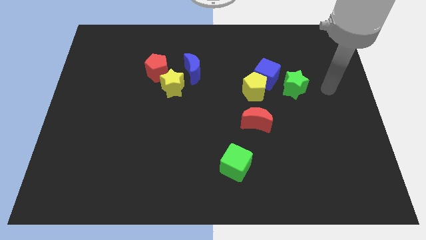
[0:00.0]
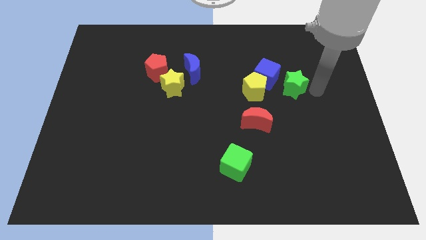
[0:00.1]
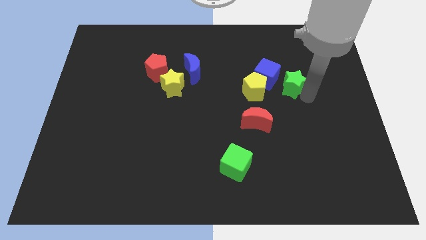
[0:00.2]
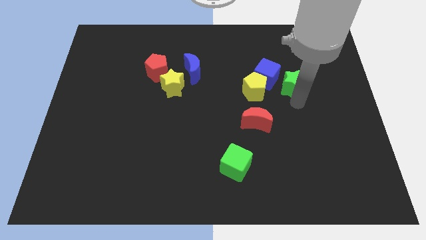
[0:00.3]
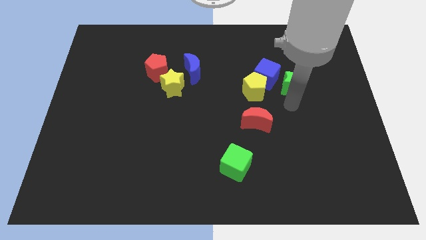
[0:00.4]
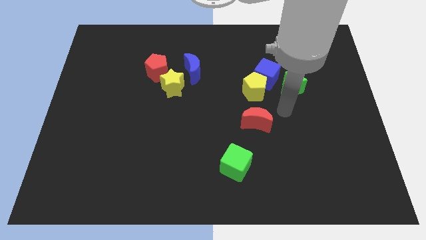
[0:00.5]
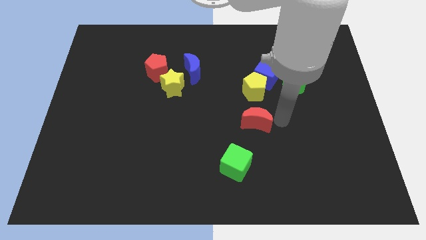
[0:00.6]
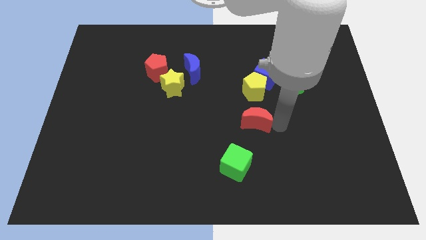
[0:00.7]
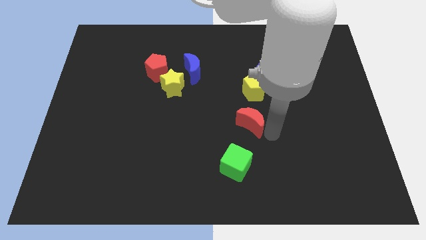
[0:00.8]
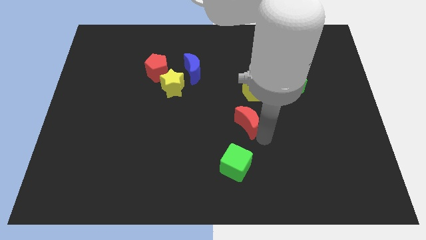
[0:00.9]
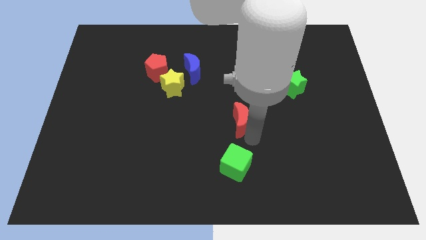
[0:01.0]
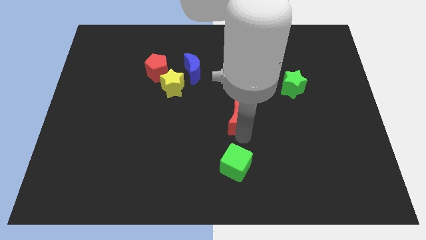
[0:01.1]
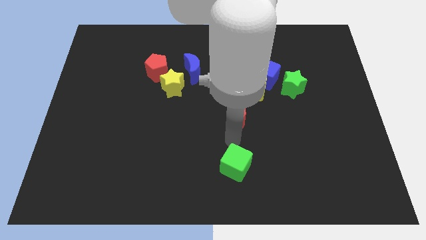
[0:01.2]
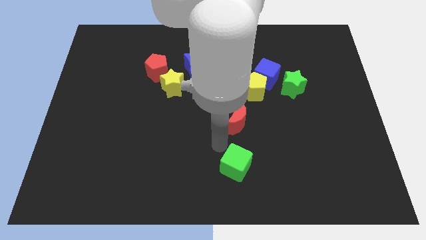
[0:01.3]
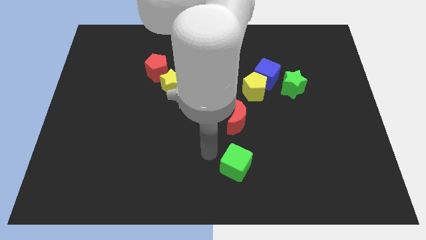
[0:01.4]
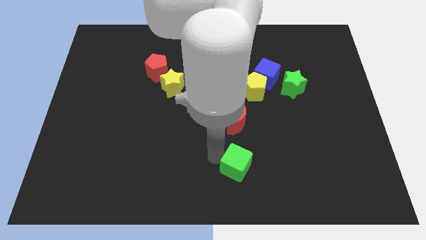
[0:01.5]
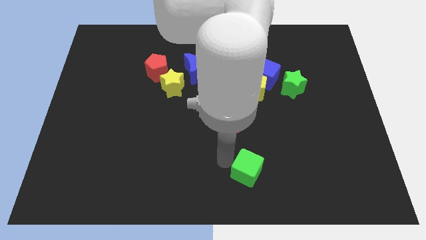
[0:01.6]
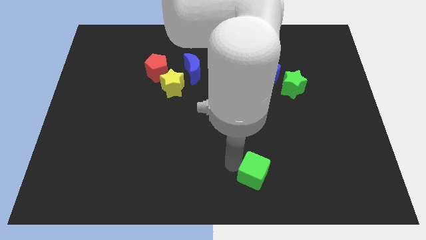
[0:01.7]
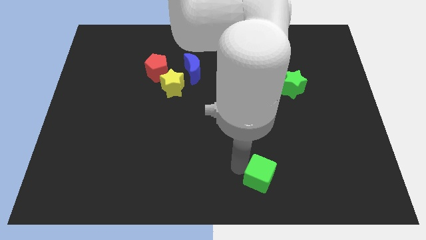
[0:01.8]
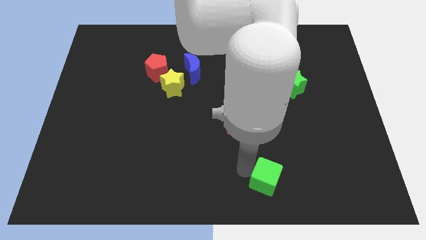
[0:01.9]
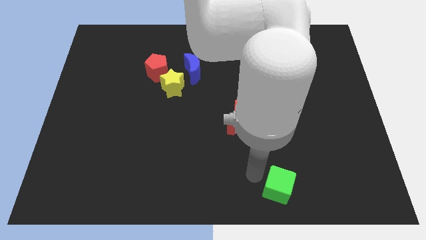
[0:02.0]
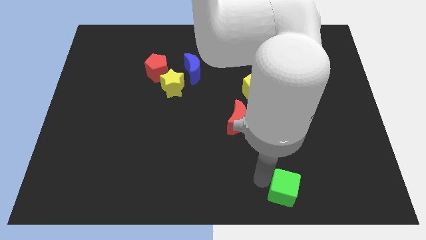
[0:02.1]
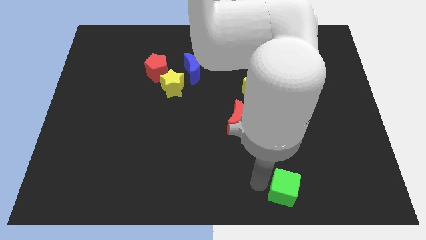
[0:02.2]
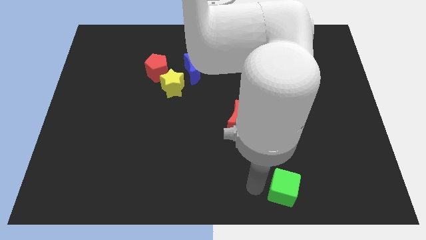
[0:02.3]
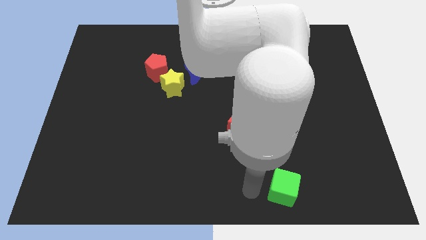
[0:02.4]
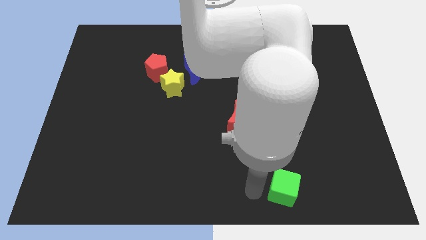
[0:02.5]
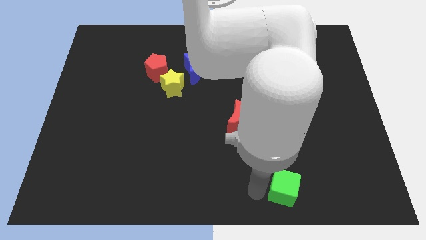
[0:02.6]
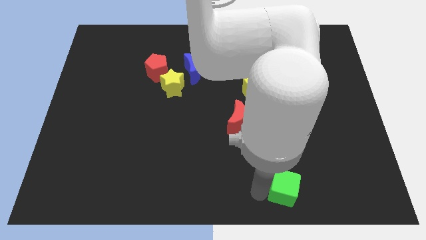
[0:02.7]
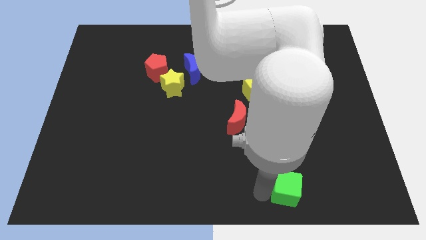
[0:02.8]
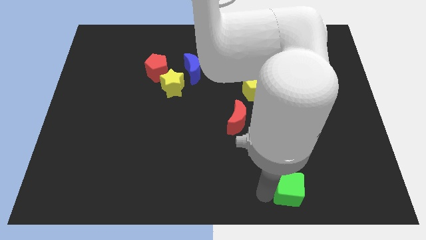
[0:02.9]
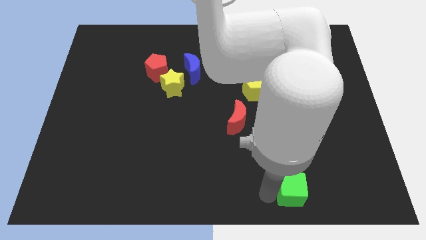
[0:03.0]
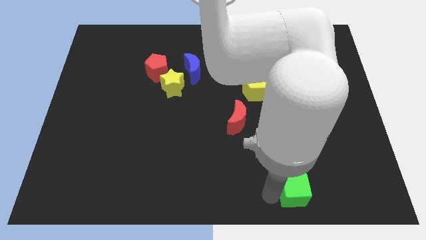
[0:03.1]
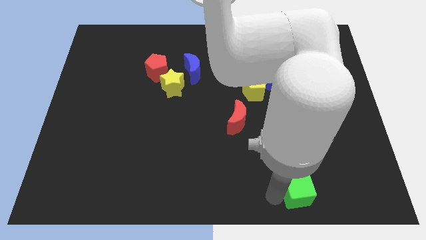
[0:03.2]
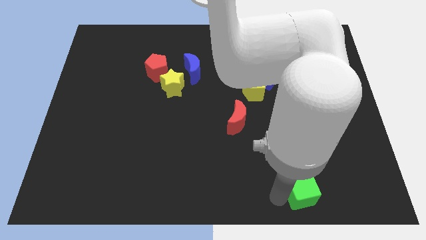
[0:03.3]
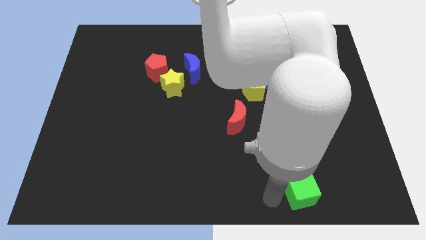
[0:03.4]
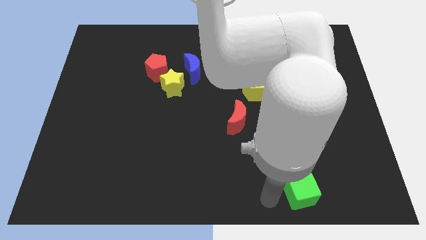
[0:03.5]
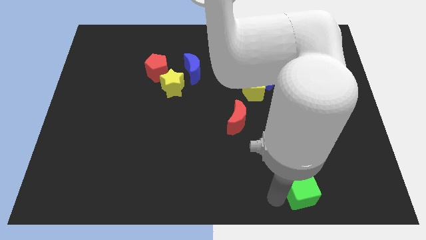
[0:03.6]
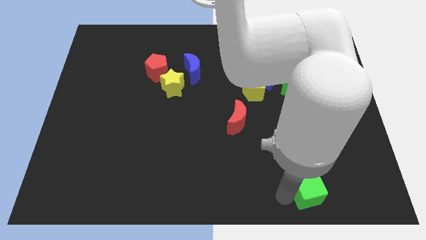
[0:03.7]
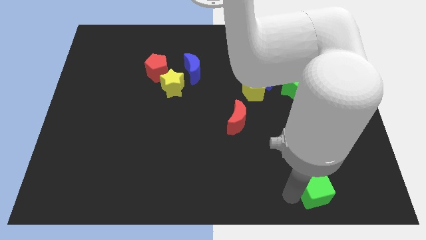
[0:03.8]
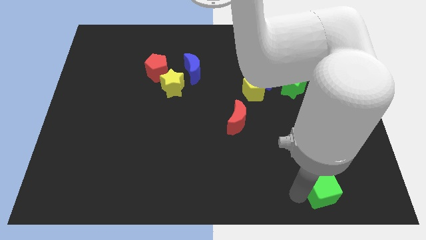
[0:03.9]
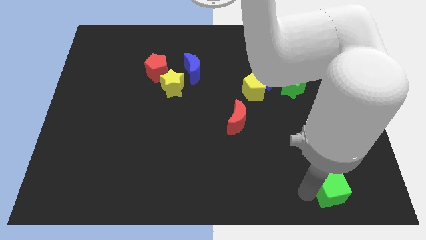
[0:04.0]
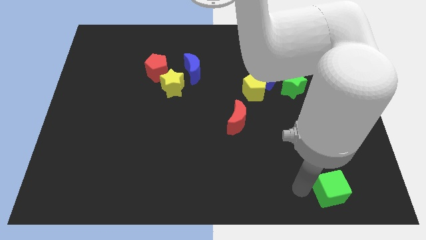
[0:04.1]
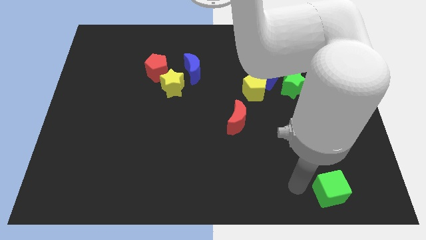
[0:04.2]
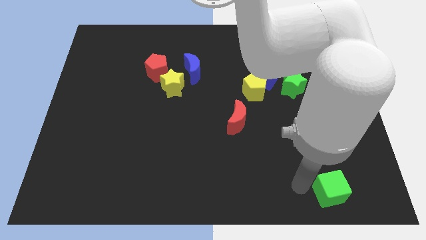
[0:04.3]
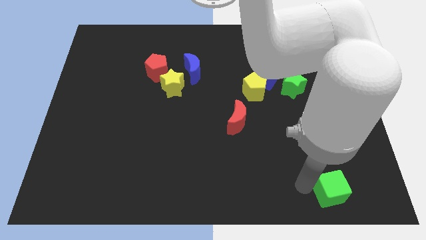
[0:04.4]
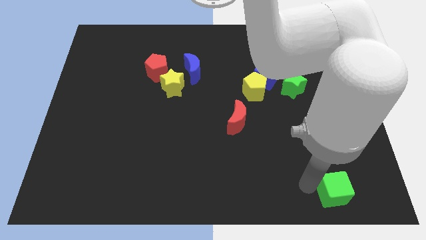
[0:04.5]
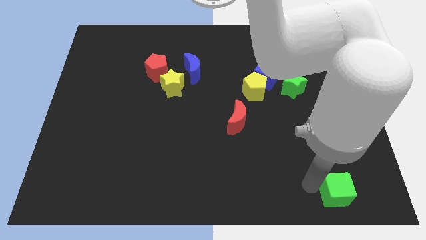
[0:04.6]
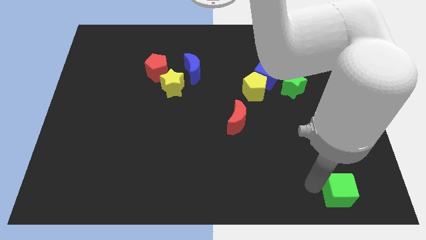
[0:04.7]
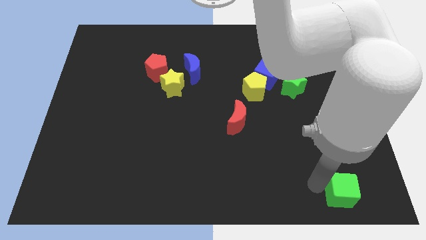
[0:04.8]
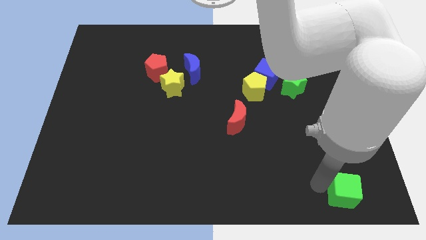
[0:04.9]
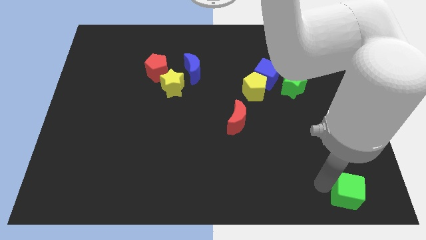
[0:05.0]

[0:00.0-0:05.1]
push the green cube to the bottom right corner

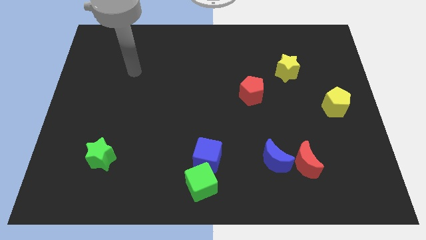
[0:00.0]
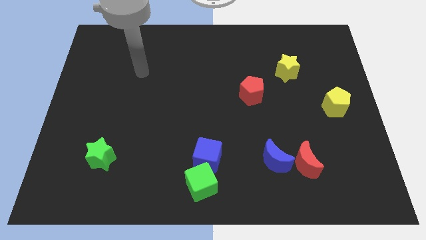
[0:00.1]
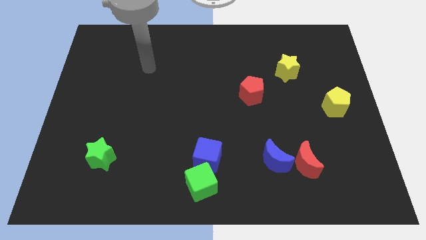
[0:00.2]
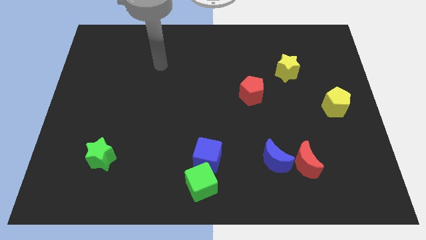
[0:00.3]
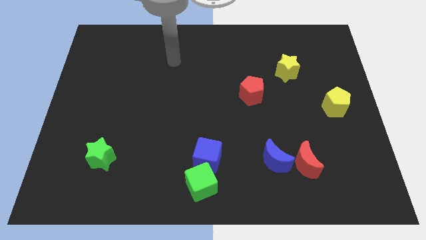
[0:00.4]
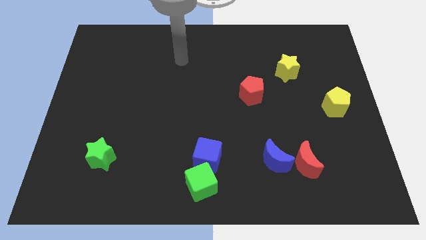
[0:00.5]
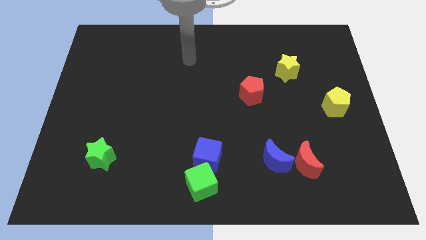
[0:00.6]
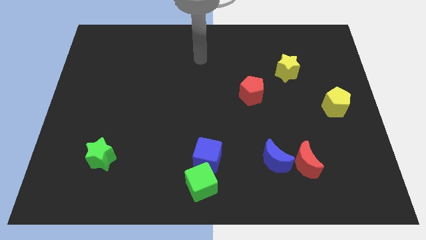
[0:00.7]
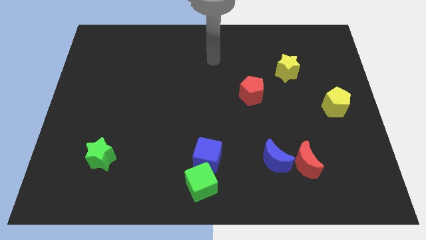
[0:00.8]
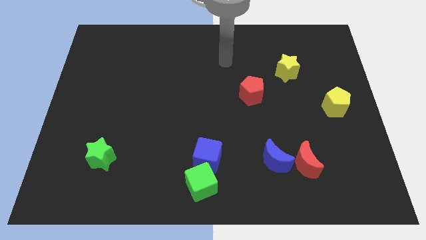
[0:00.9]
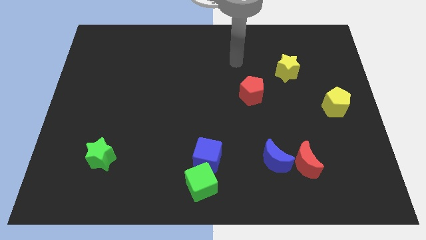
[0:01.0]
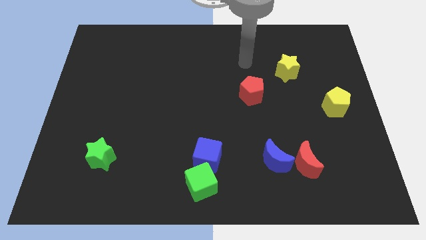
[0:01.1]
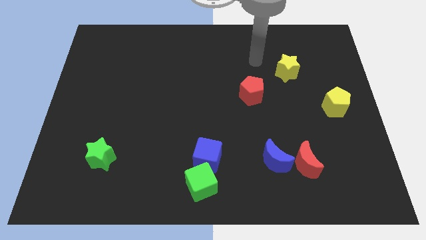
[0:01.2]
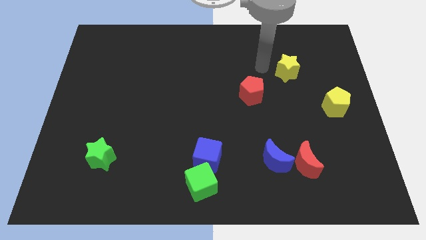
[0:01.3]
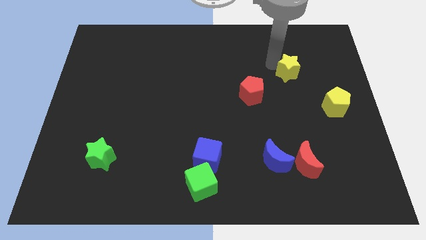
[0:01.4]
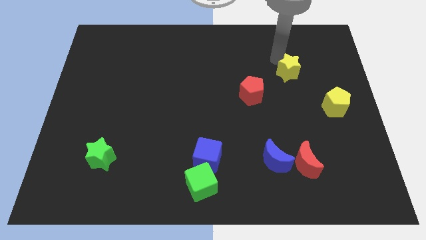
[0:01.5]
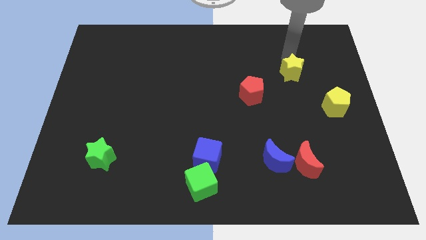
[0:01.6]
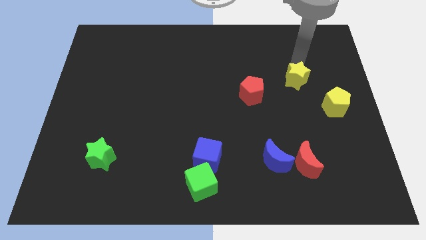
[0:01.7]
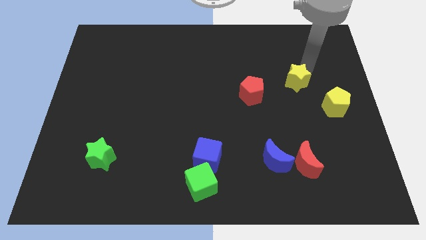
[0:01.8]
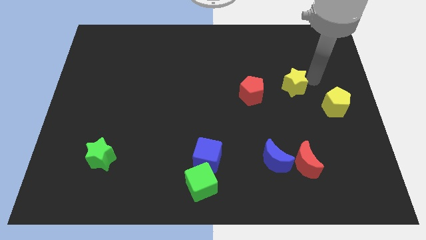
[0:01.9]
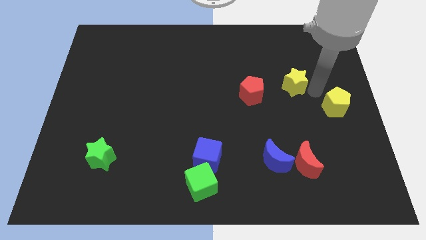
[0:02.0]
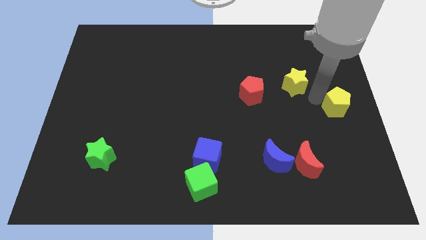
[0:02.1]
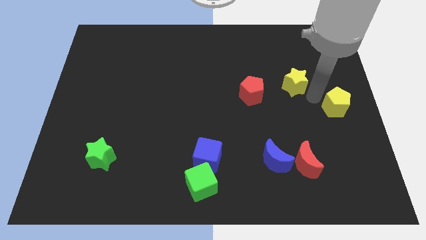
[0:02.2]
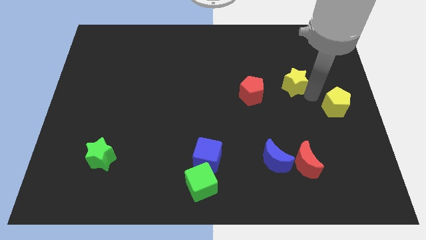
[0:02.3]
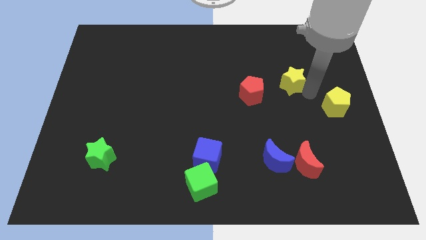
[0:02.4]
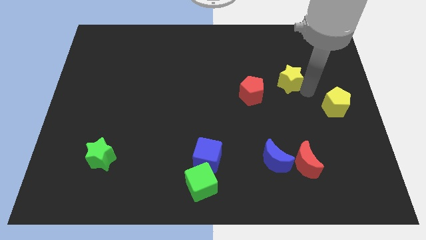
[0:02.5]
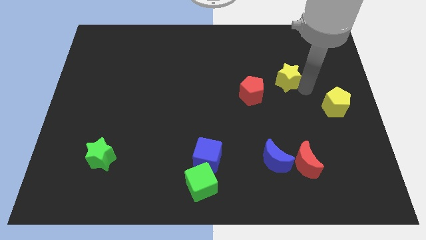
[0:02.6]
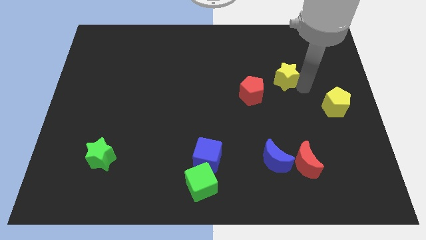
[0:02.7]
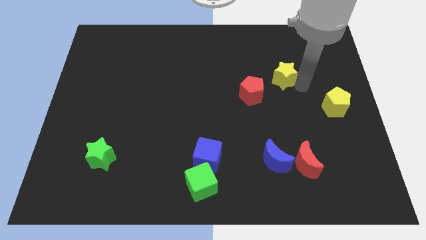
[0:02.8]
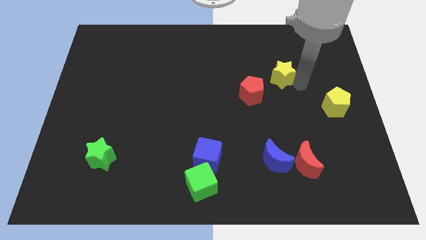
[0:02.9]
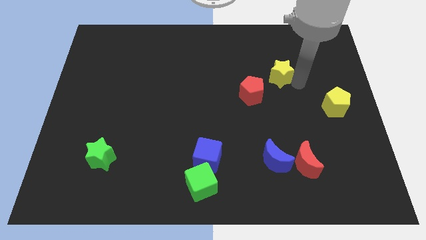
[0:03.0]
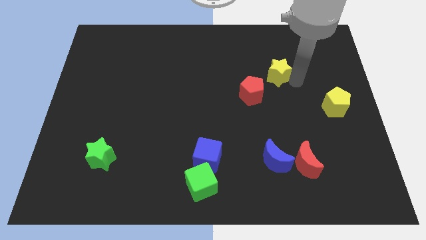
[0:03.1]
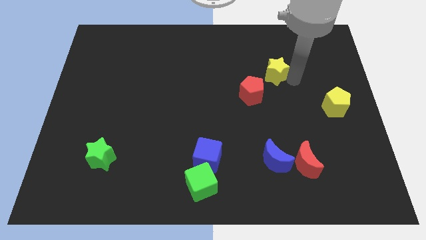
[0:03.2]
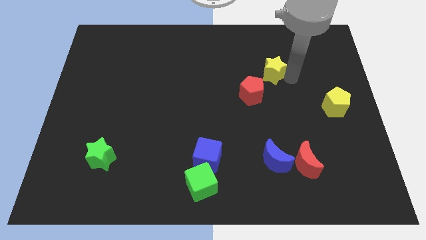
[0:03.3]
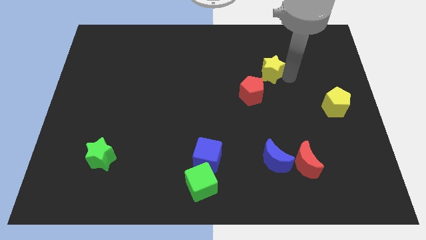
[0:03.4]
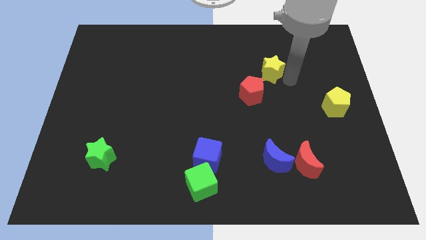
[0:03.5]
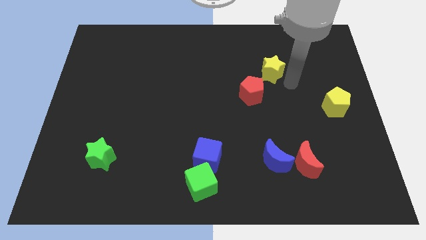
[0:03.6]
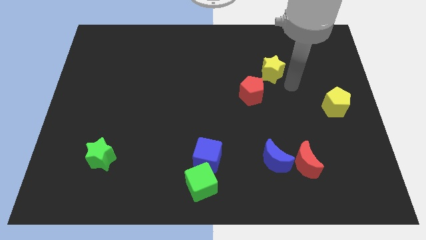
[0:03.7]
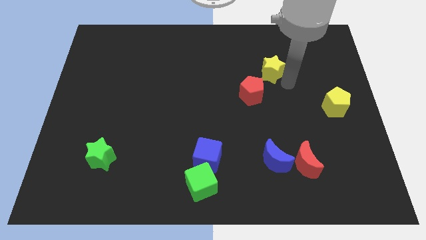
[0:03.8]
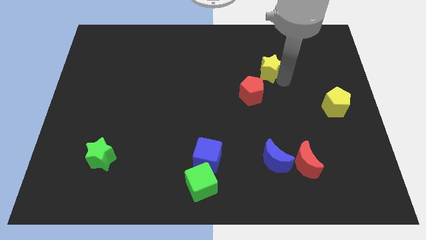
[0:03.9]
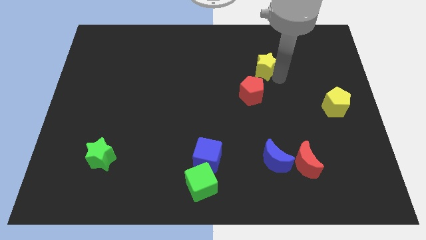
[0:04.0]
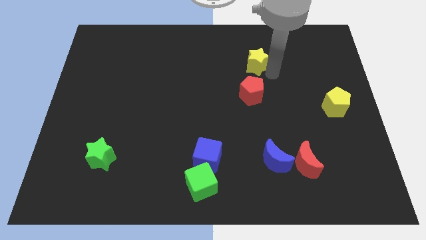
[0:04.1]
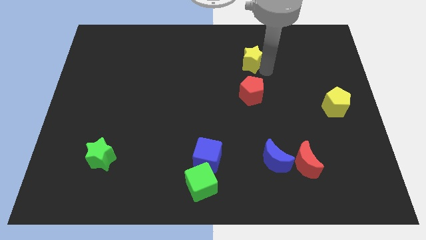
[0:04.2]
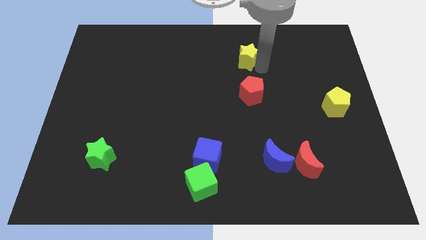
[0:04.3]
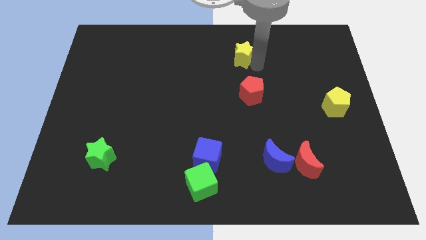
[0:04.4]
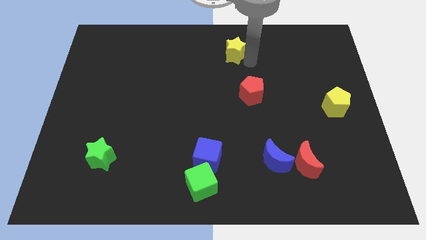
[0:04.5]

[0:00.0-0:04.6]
put the yellow star to the towards your base
